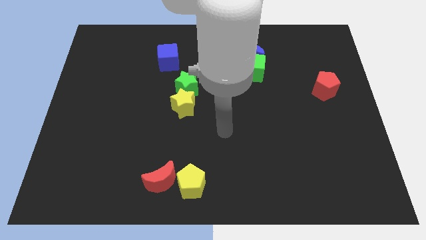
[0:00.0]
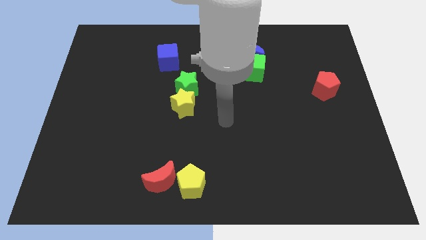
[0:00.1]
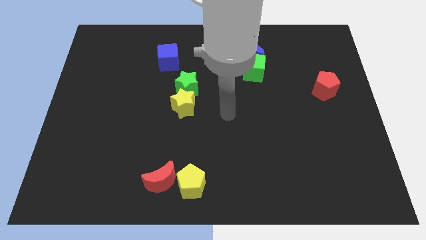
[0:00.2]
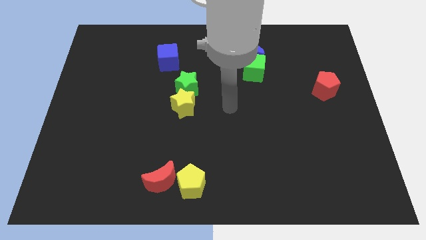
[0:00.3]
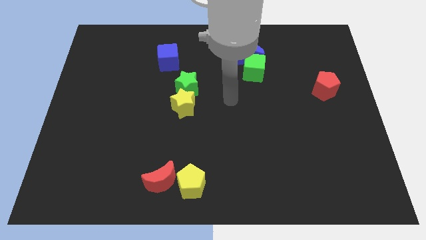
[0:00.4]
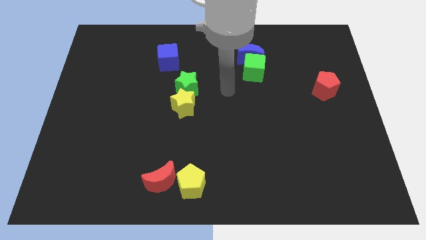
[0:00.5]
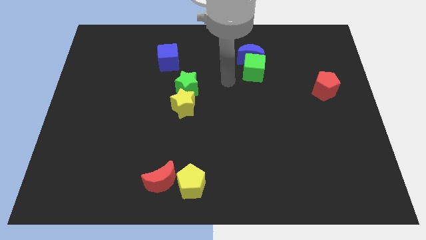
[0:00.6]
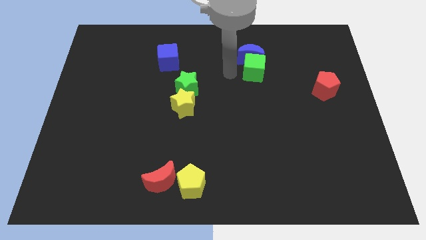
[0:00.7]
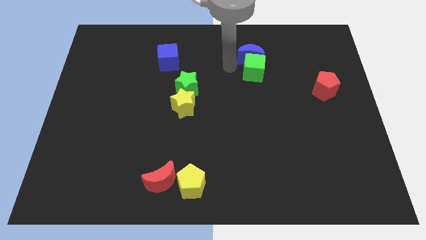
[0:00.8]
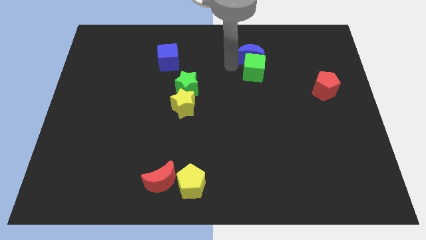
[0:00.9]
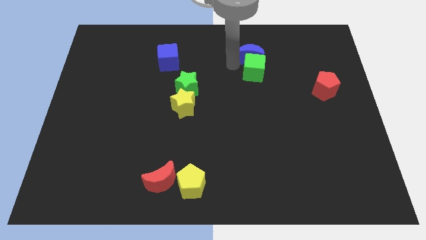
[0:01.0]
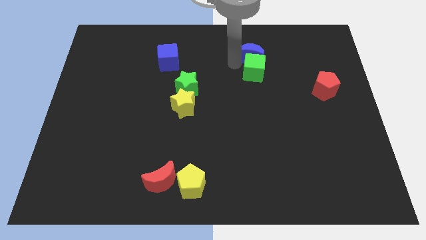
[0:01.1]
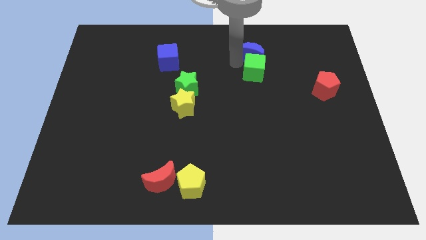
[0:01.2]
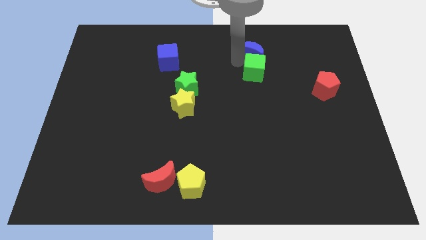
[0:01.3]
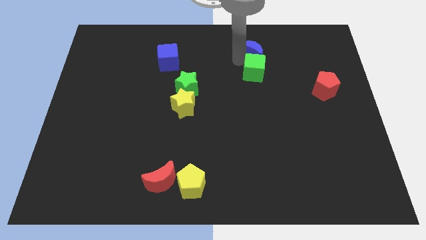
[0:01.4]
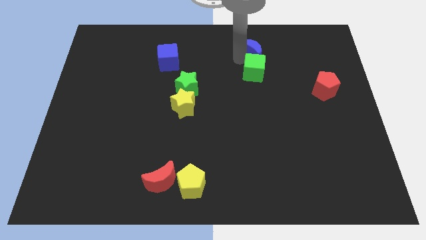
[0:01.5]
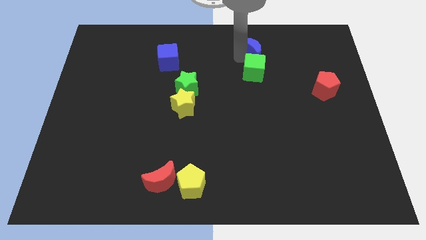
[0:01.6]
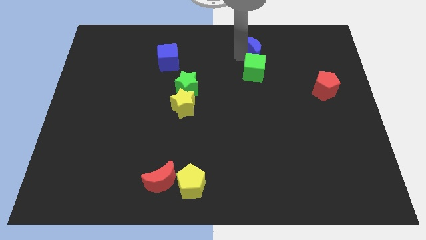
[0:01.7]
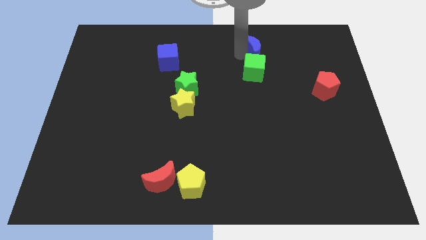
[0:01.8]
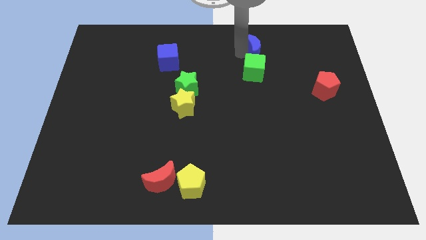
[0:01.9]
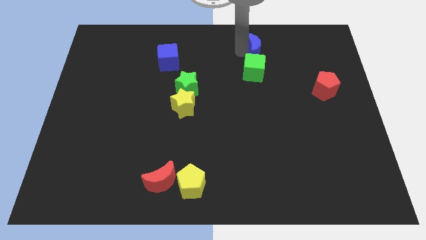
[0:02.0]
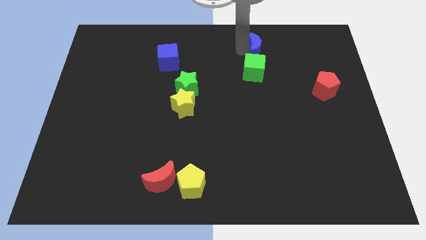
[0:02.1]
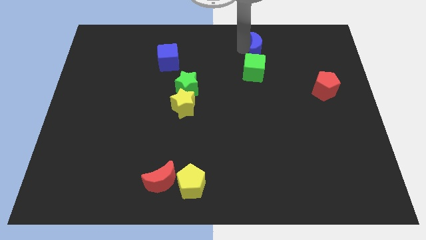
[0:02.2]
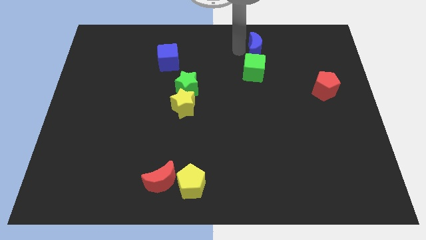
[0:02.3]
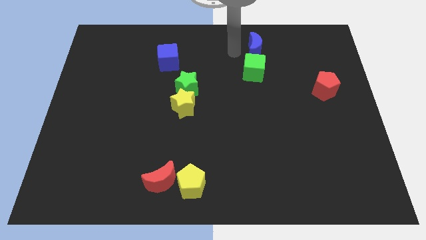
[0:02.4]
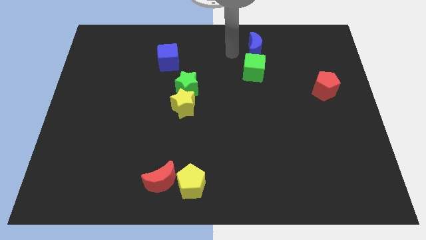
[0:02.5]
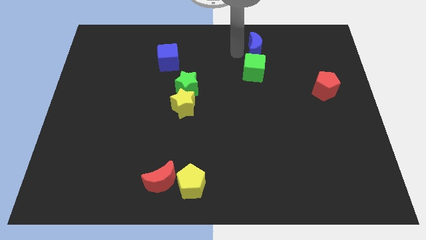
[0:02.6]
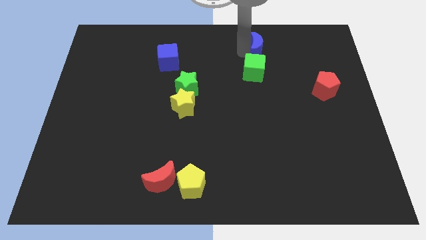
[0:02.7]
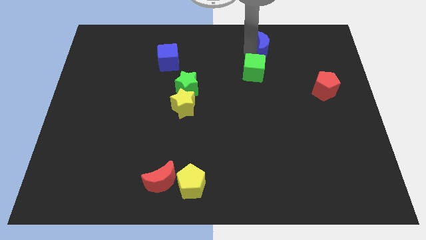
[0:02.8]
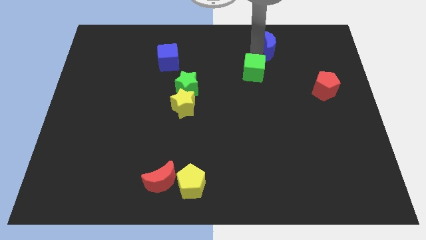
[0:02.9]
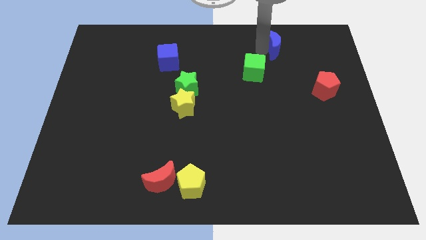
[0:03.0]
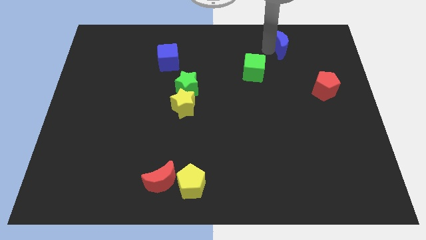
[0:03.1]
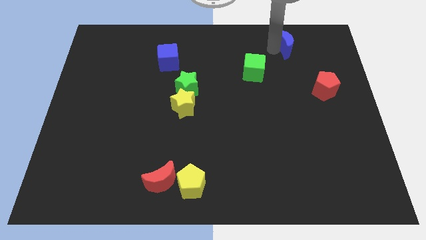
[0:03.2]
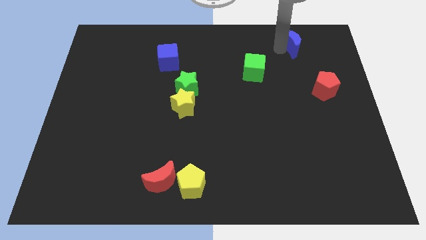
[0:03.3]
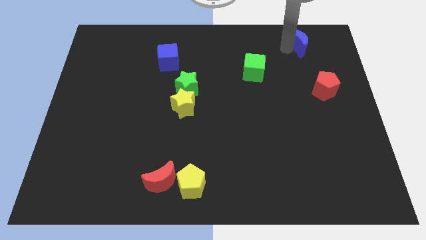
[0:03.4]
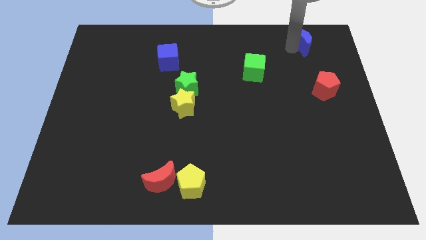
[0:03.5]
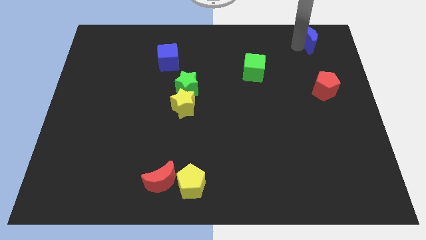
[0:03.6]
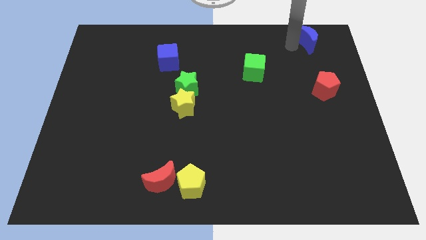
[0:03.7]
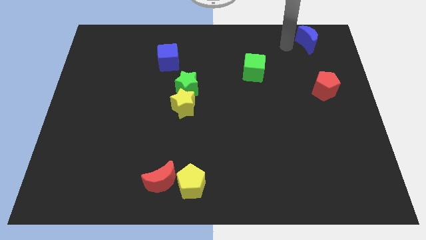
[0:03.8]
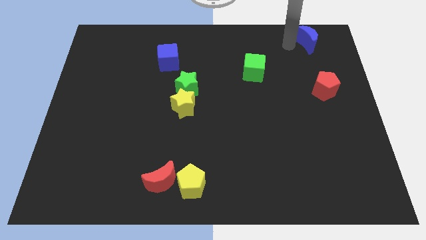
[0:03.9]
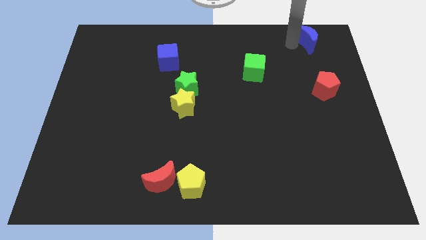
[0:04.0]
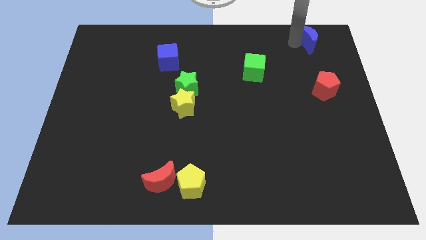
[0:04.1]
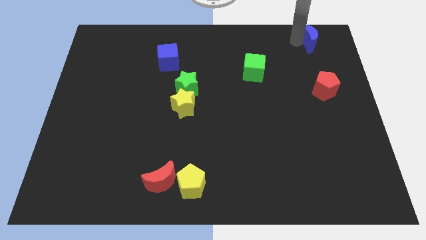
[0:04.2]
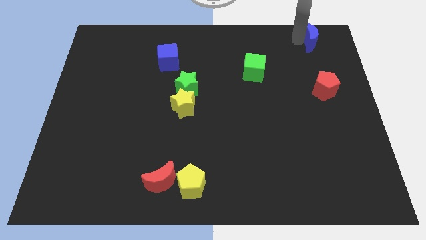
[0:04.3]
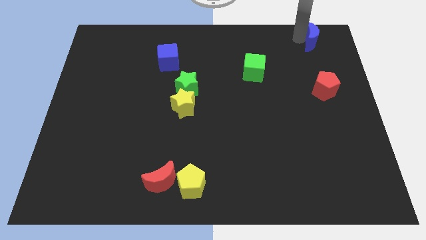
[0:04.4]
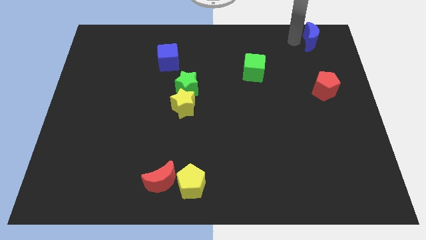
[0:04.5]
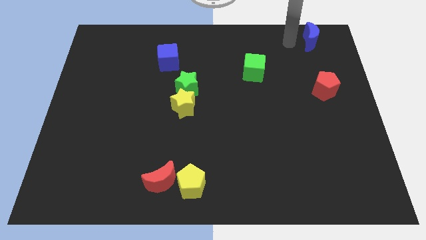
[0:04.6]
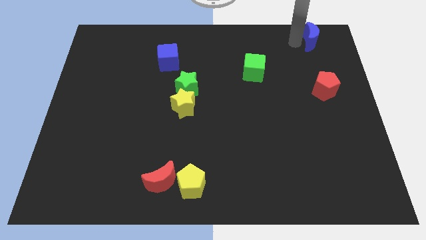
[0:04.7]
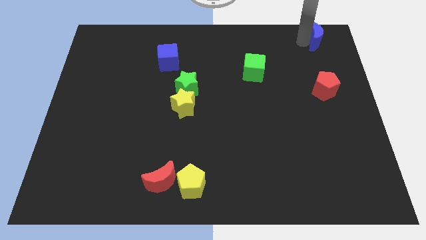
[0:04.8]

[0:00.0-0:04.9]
slide the blue moon to the top right

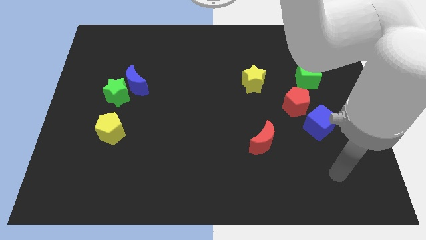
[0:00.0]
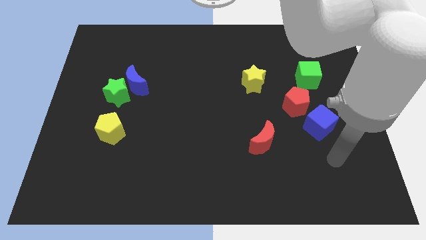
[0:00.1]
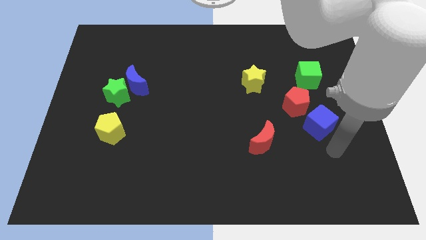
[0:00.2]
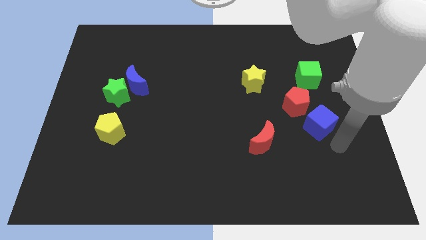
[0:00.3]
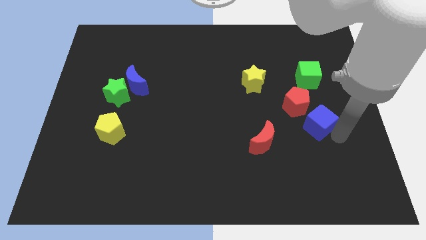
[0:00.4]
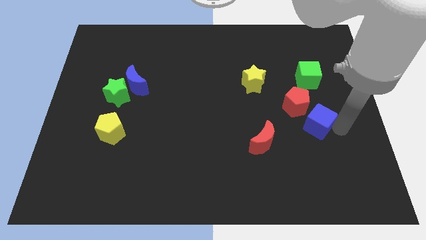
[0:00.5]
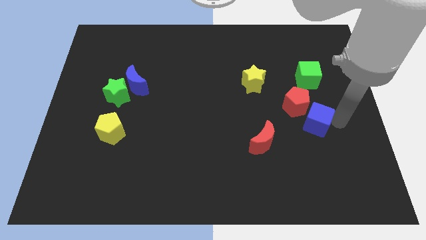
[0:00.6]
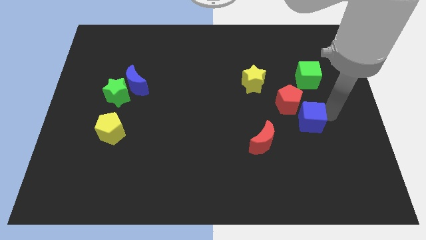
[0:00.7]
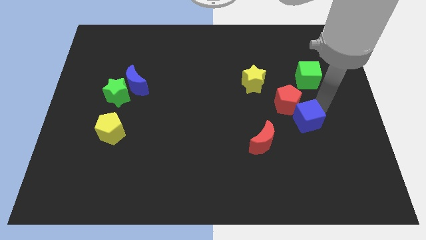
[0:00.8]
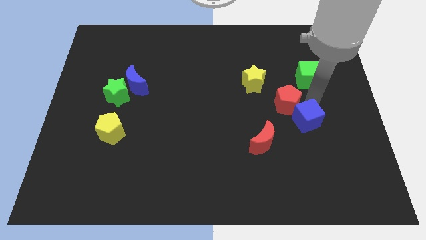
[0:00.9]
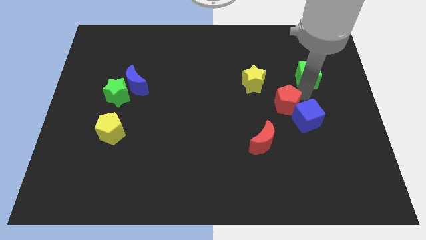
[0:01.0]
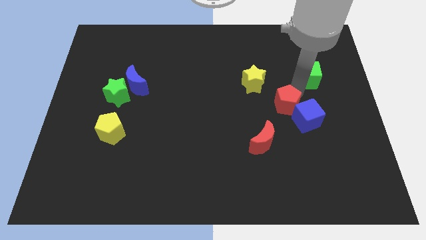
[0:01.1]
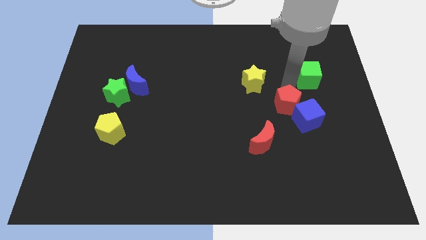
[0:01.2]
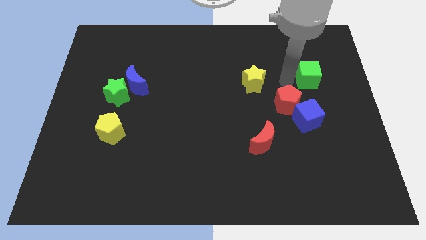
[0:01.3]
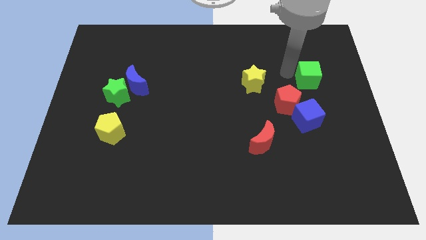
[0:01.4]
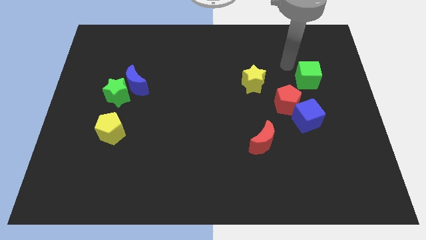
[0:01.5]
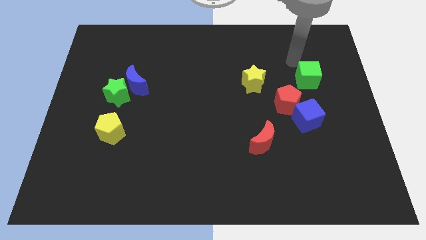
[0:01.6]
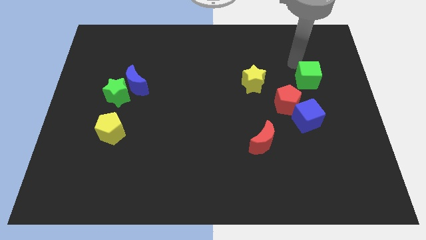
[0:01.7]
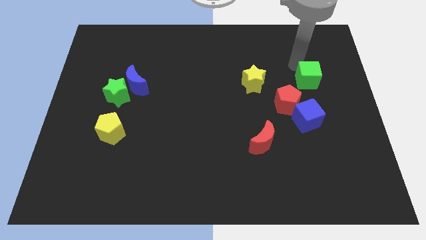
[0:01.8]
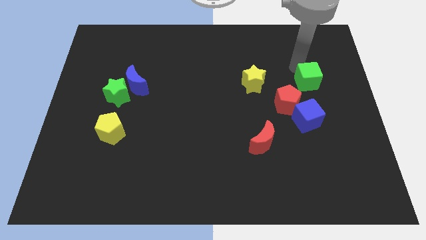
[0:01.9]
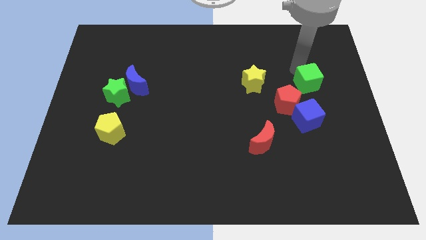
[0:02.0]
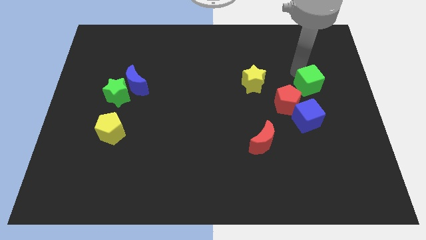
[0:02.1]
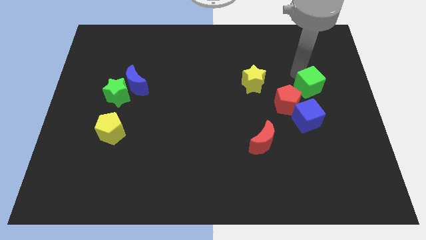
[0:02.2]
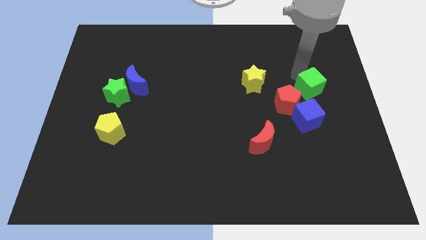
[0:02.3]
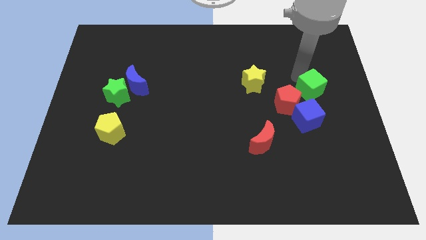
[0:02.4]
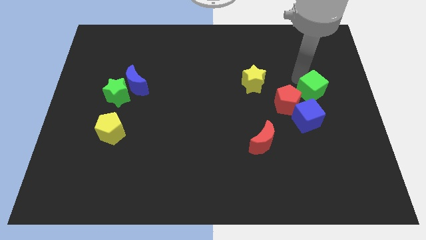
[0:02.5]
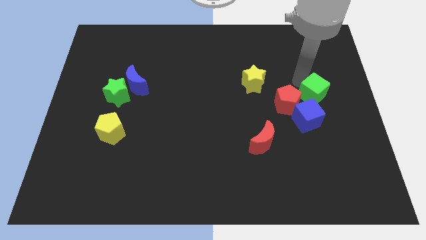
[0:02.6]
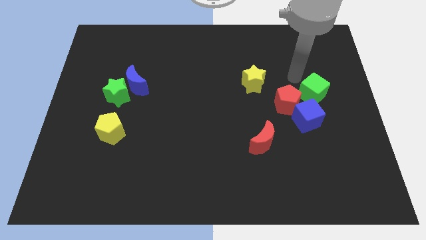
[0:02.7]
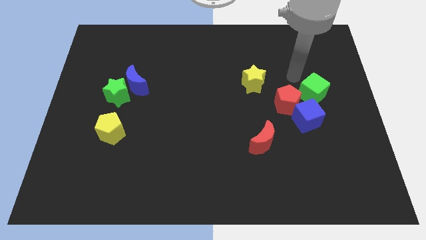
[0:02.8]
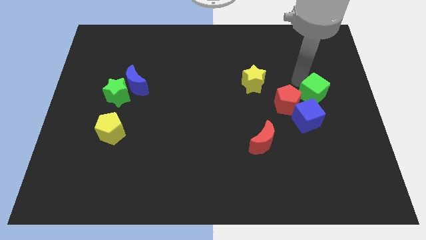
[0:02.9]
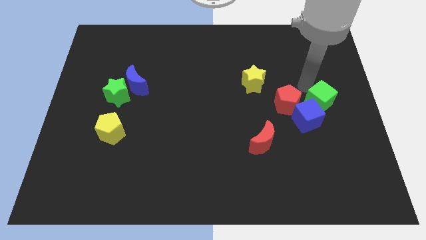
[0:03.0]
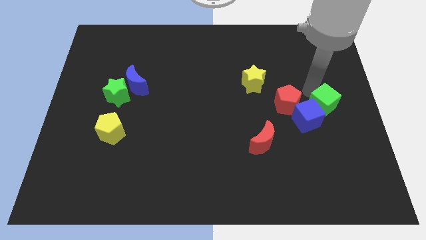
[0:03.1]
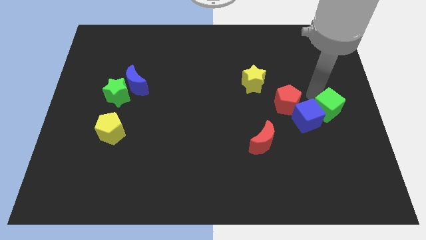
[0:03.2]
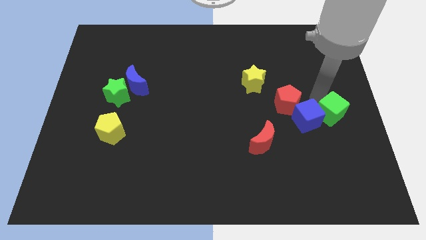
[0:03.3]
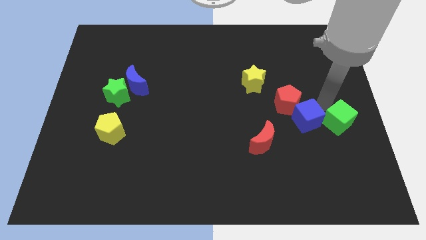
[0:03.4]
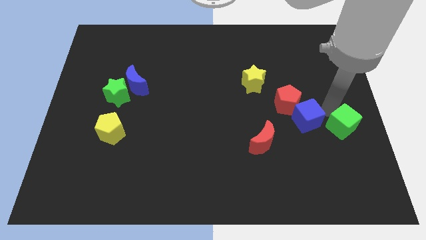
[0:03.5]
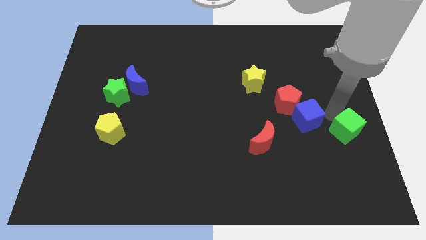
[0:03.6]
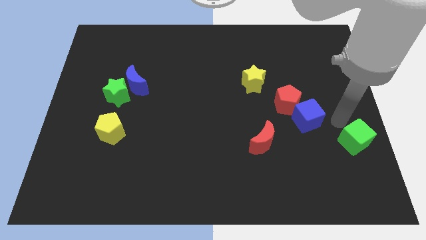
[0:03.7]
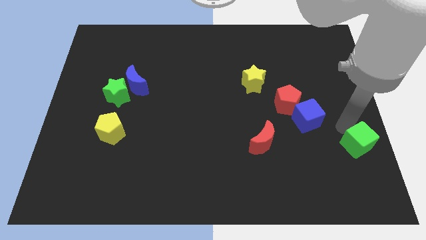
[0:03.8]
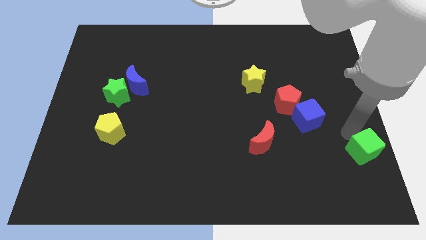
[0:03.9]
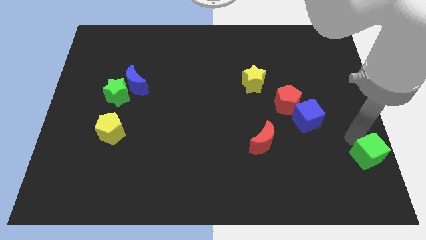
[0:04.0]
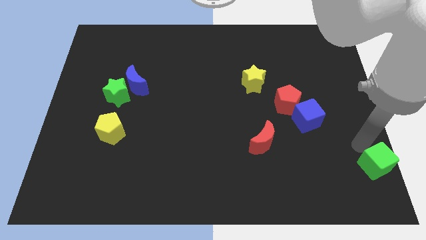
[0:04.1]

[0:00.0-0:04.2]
move the green cube to the bottom right corner
